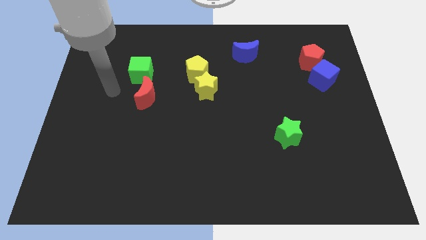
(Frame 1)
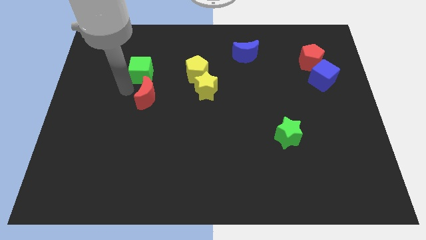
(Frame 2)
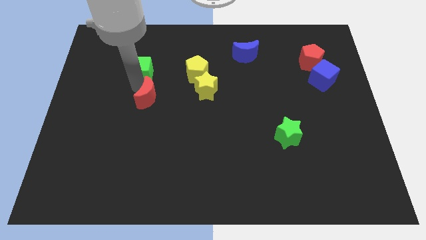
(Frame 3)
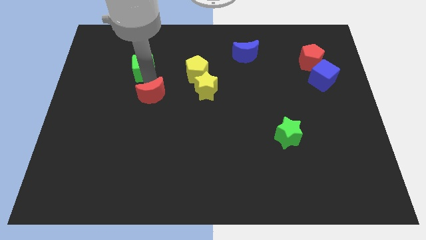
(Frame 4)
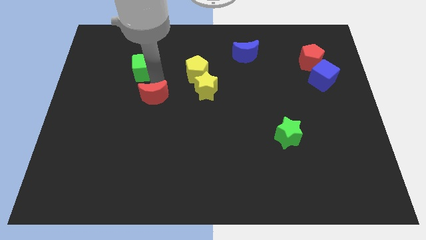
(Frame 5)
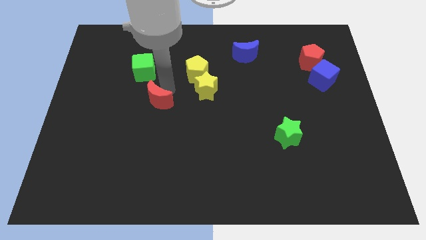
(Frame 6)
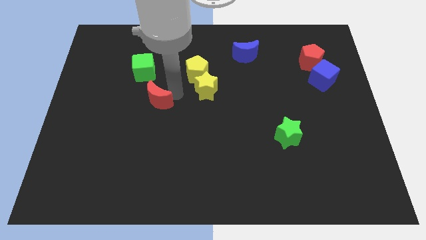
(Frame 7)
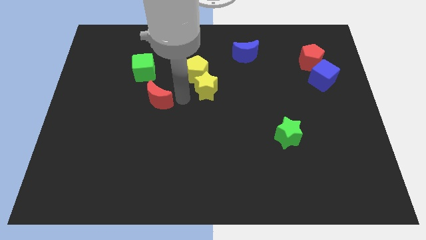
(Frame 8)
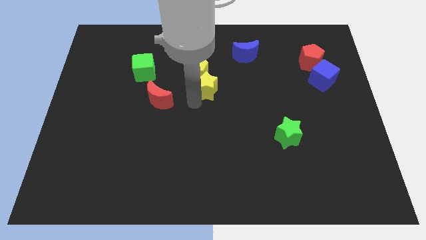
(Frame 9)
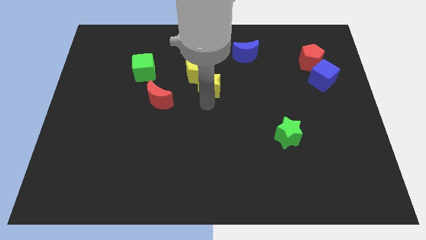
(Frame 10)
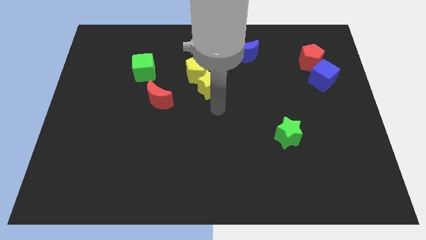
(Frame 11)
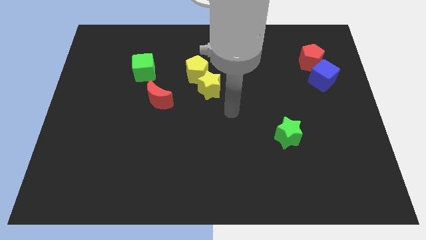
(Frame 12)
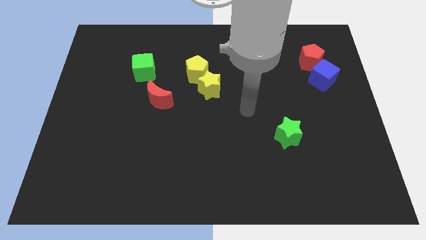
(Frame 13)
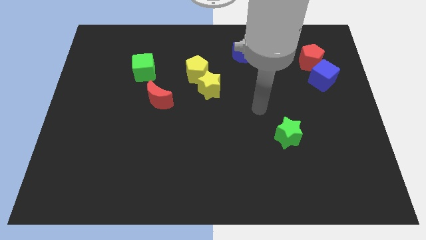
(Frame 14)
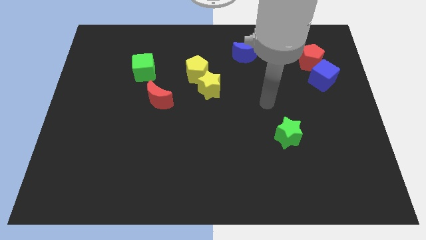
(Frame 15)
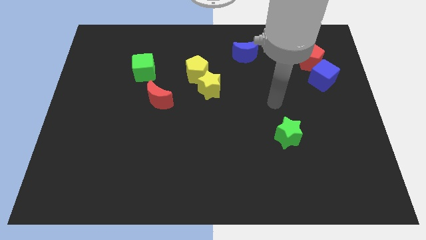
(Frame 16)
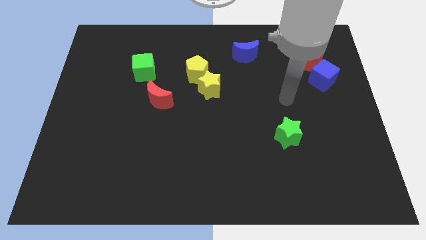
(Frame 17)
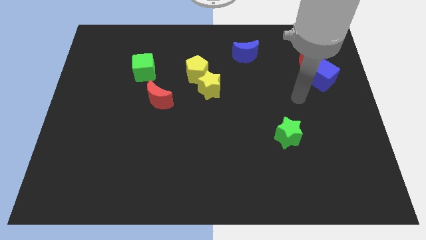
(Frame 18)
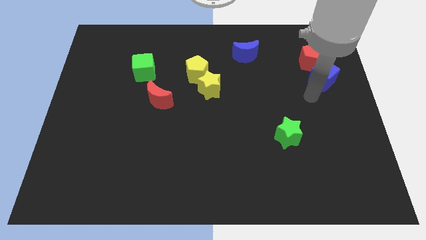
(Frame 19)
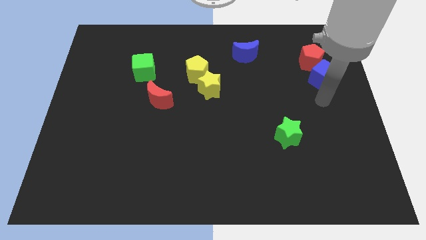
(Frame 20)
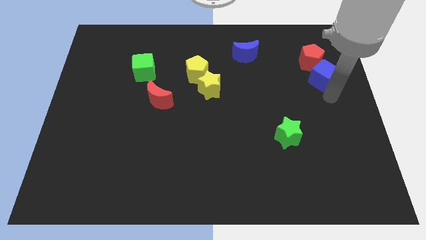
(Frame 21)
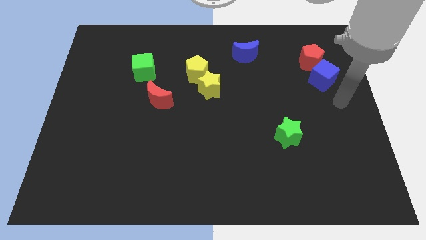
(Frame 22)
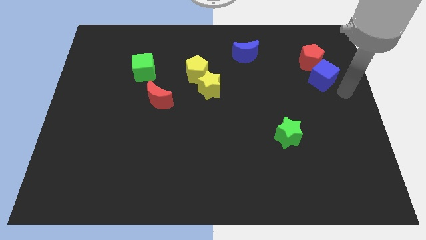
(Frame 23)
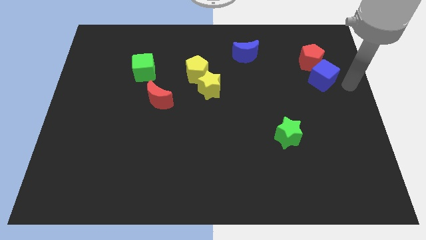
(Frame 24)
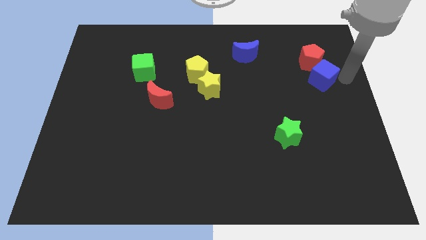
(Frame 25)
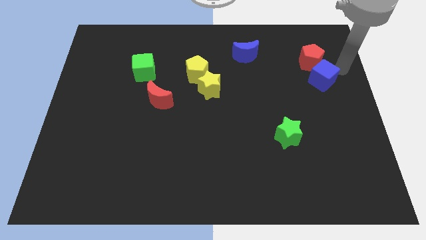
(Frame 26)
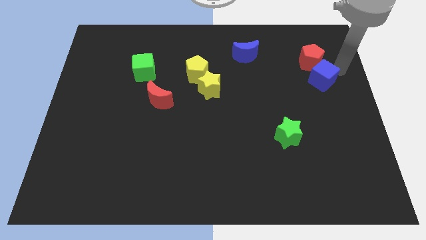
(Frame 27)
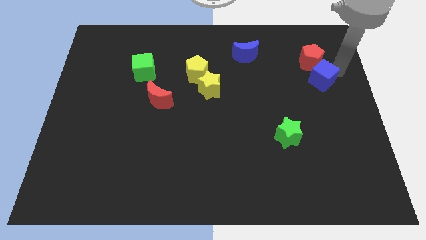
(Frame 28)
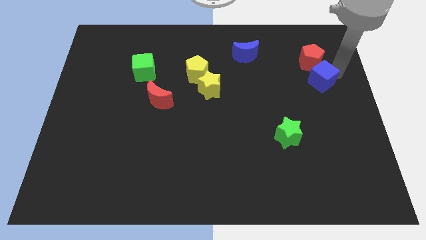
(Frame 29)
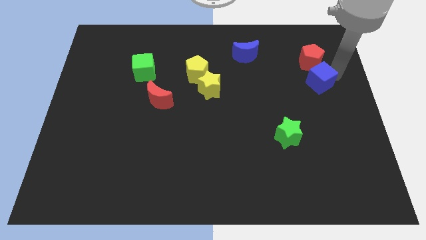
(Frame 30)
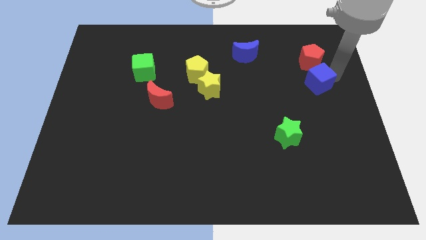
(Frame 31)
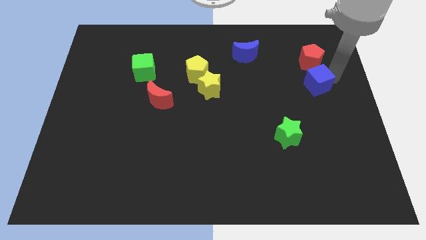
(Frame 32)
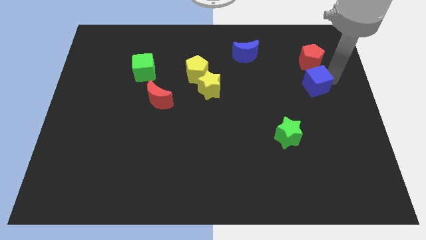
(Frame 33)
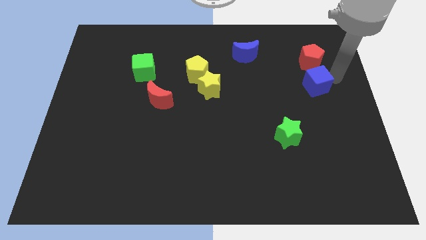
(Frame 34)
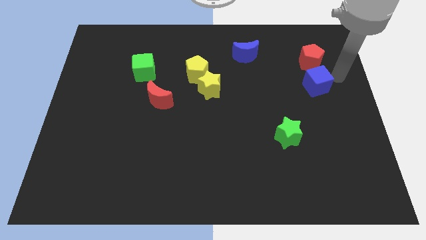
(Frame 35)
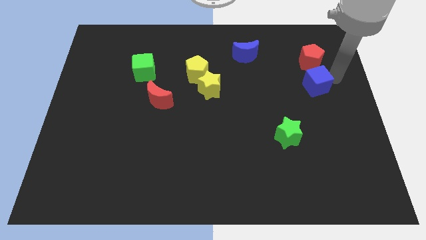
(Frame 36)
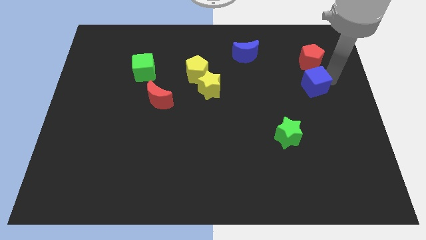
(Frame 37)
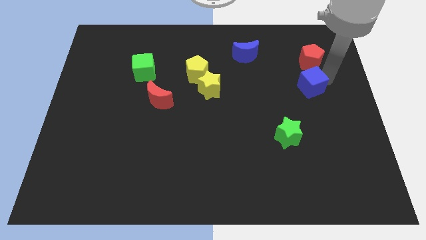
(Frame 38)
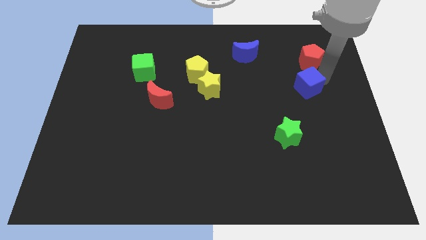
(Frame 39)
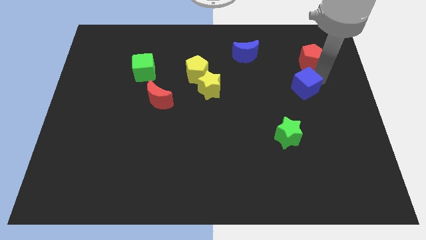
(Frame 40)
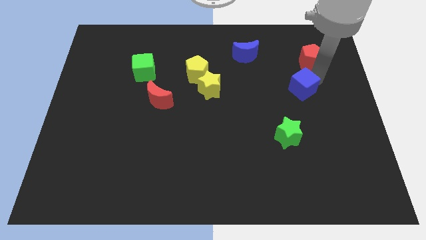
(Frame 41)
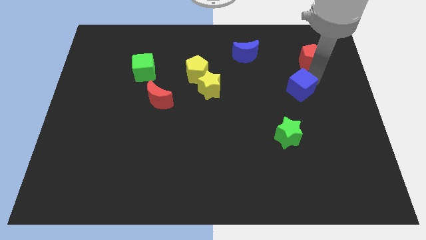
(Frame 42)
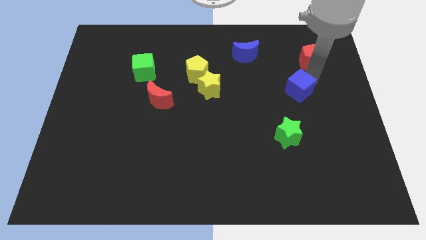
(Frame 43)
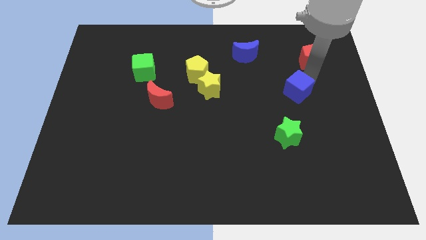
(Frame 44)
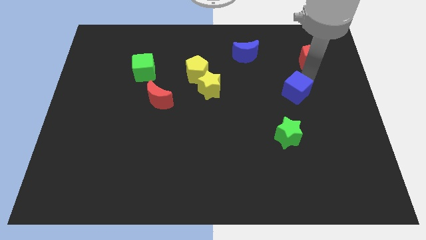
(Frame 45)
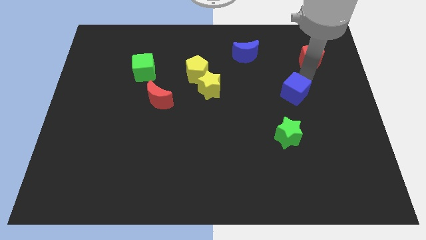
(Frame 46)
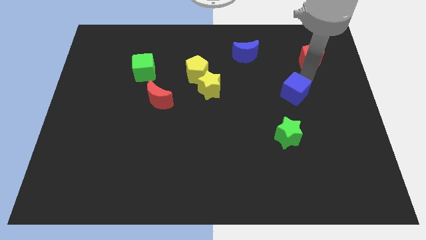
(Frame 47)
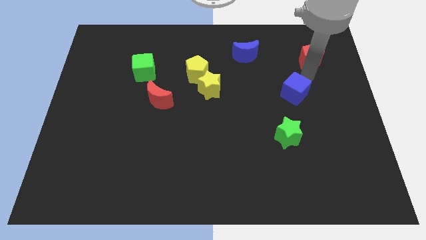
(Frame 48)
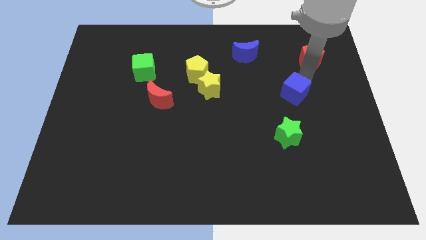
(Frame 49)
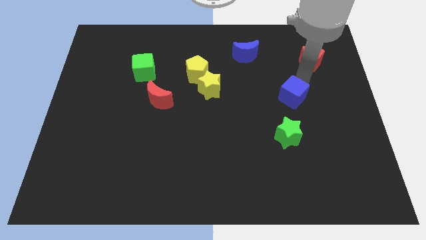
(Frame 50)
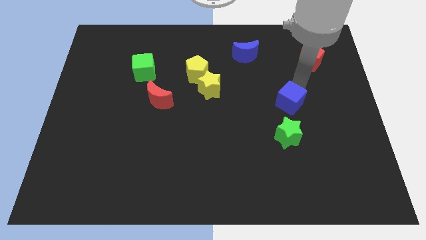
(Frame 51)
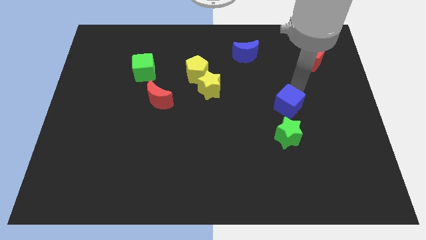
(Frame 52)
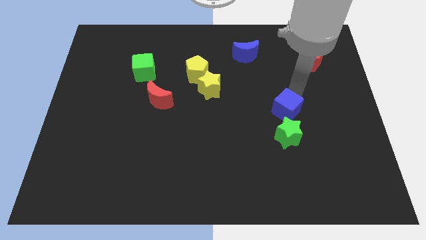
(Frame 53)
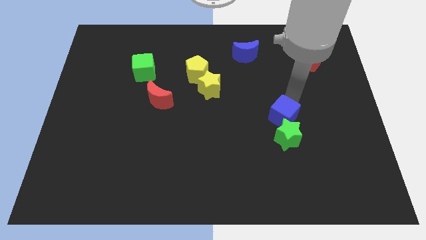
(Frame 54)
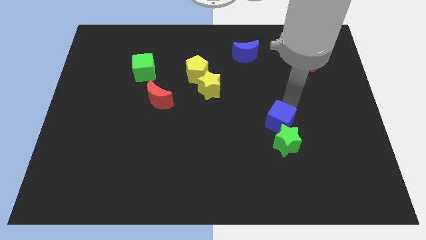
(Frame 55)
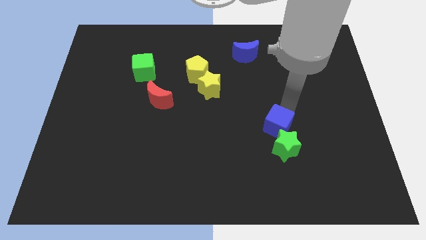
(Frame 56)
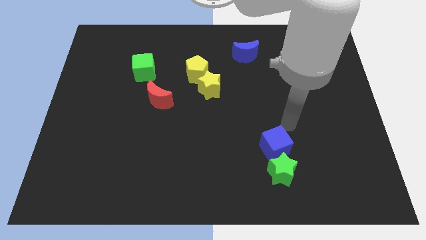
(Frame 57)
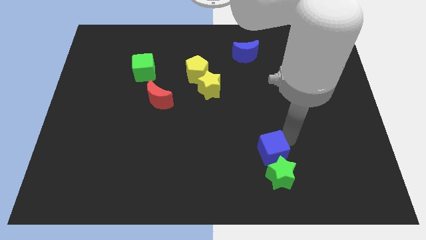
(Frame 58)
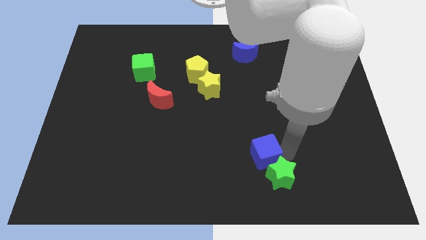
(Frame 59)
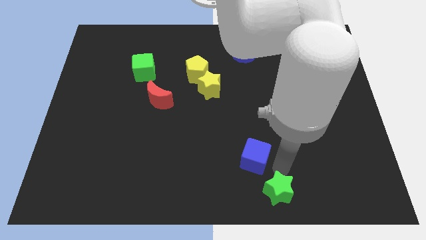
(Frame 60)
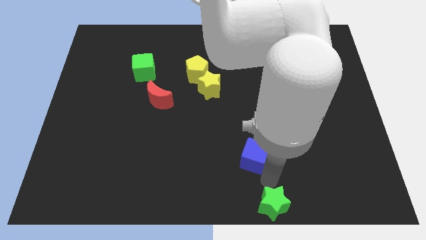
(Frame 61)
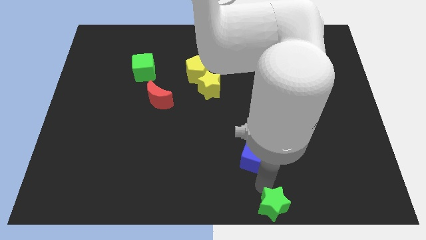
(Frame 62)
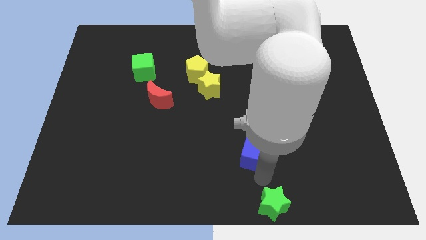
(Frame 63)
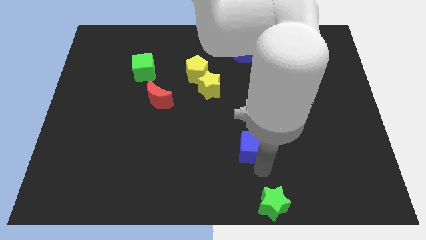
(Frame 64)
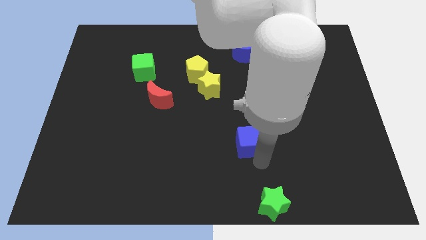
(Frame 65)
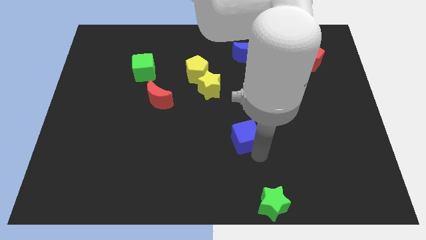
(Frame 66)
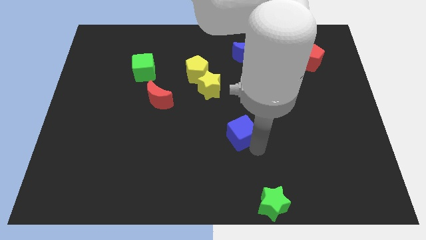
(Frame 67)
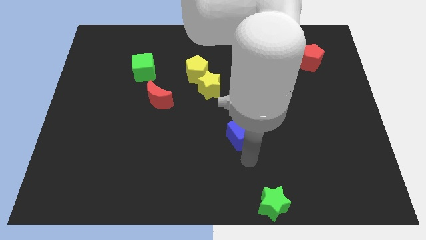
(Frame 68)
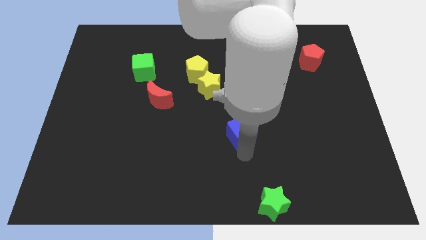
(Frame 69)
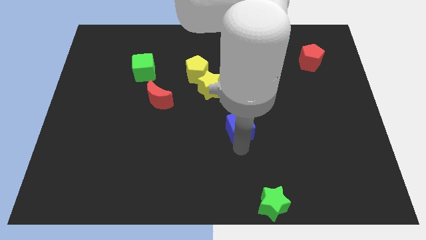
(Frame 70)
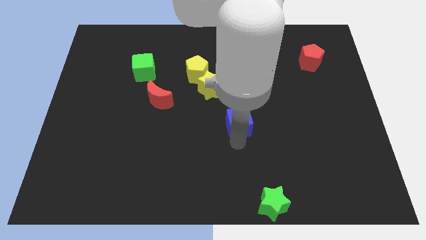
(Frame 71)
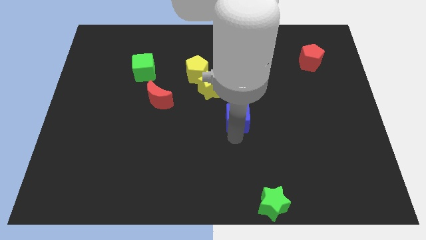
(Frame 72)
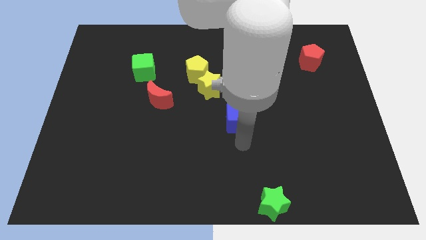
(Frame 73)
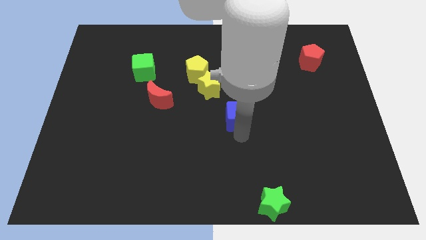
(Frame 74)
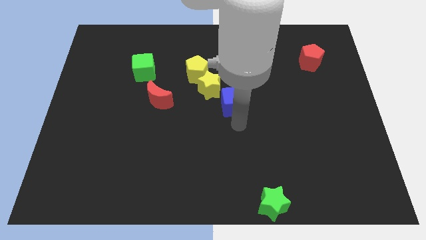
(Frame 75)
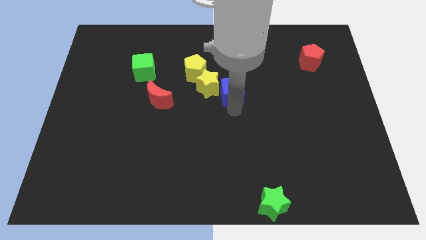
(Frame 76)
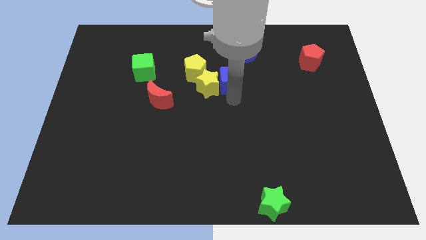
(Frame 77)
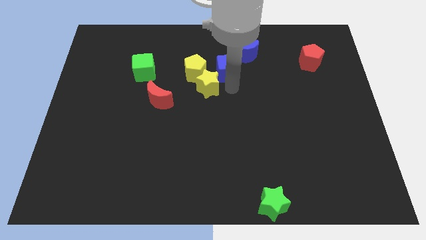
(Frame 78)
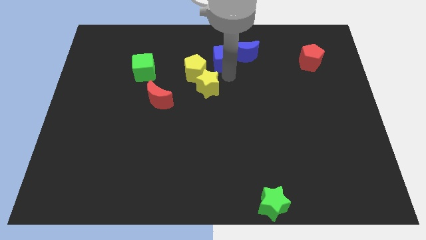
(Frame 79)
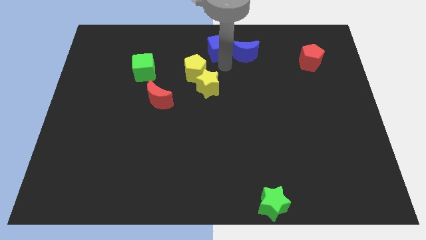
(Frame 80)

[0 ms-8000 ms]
move the blue cube to the towards your base
